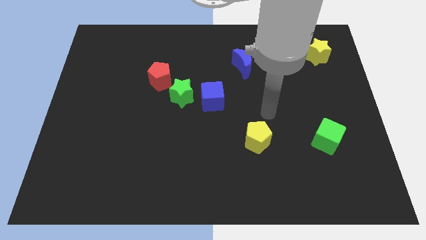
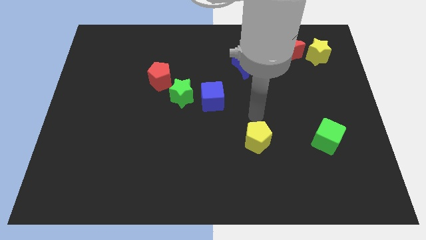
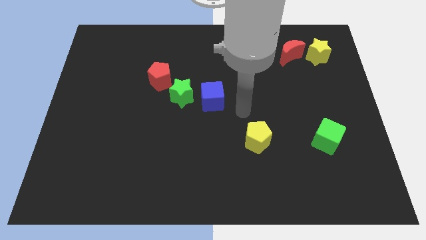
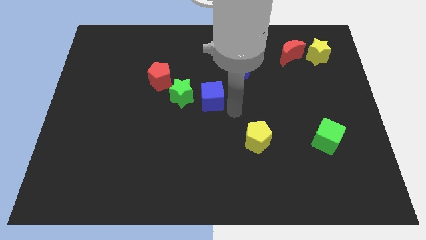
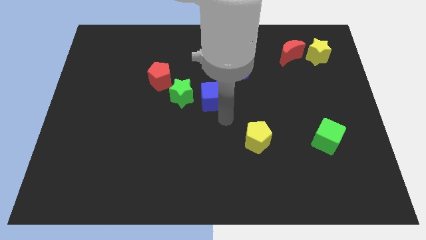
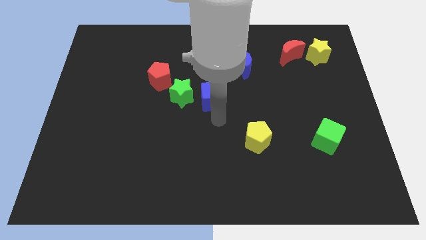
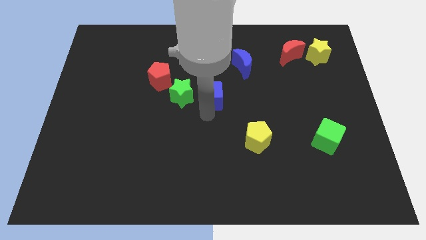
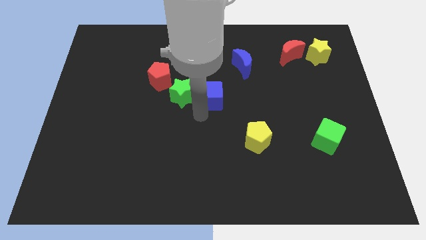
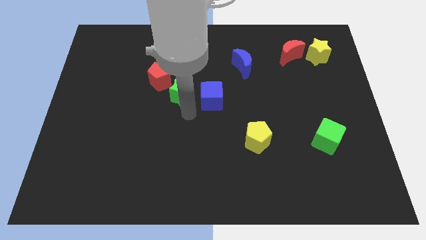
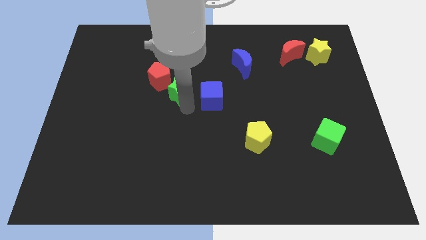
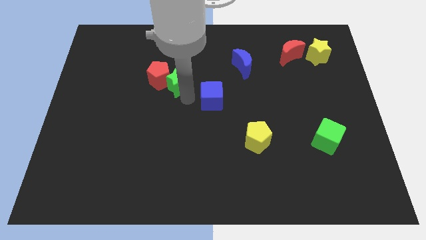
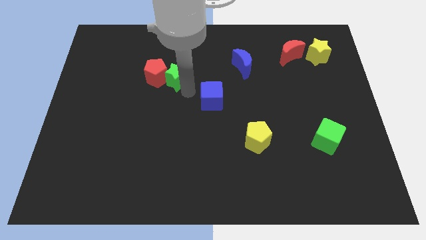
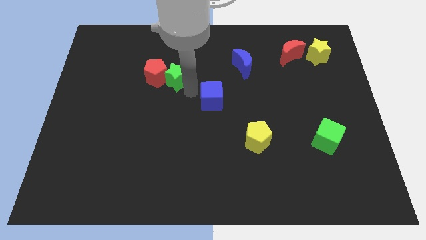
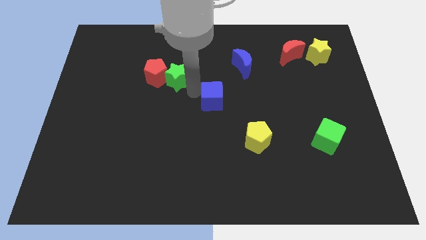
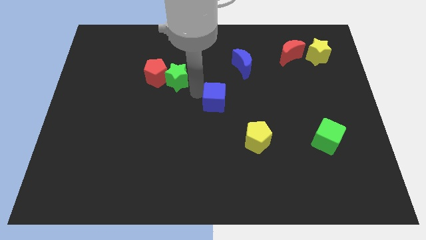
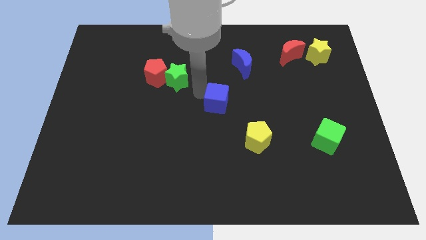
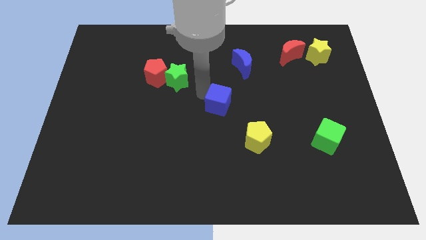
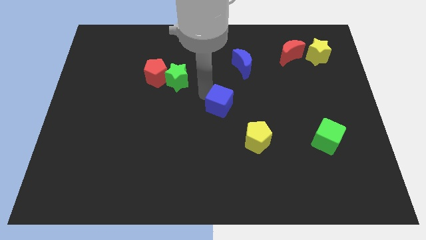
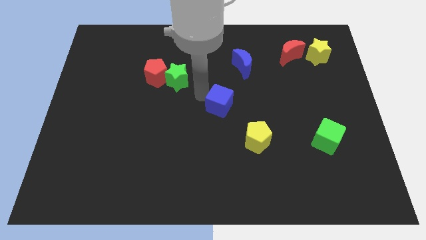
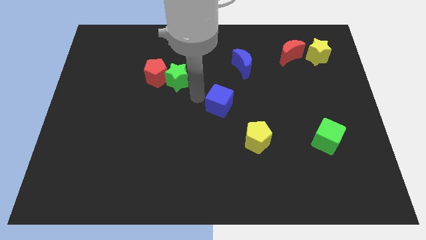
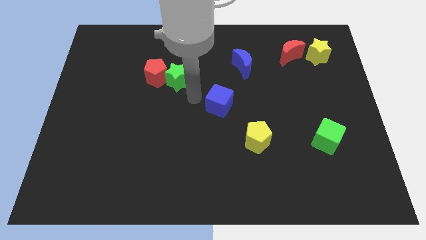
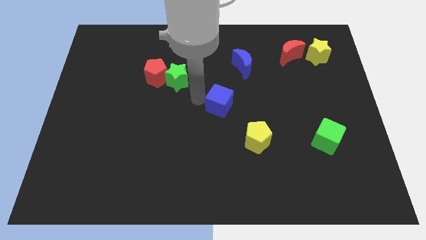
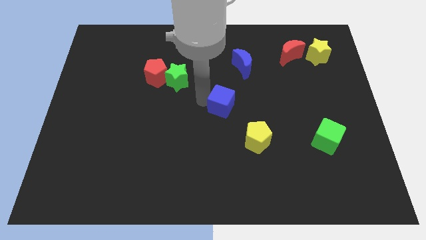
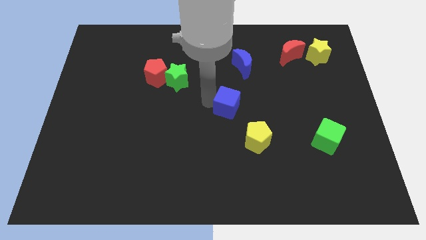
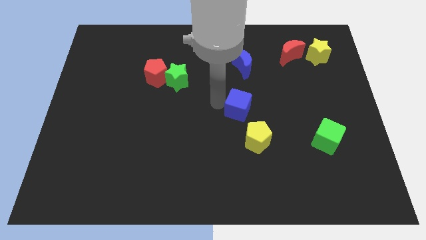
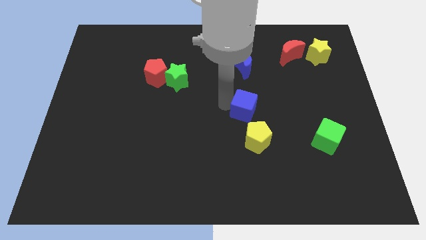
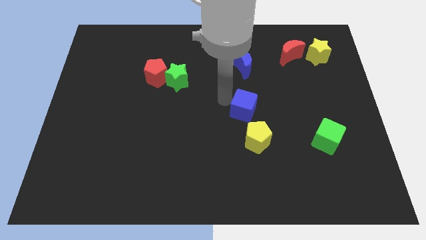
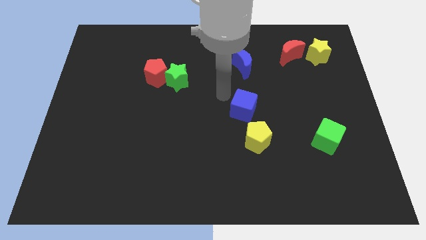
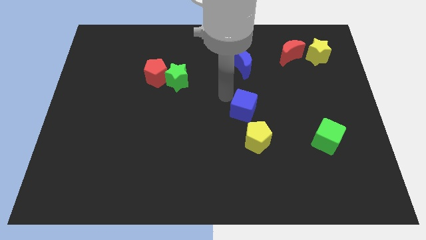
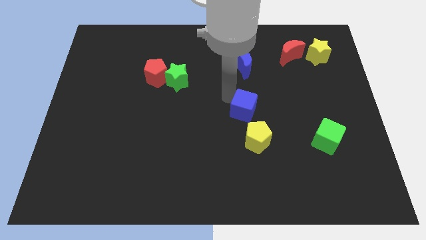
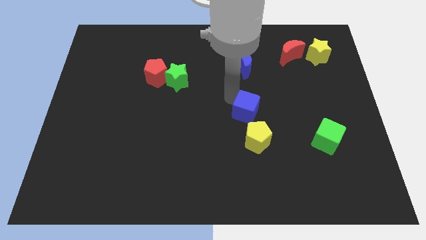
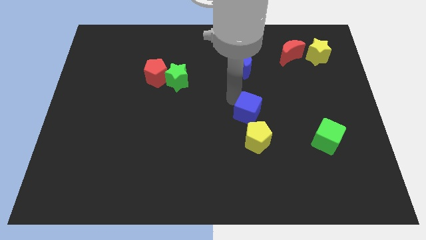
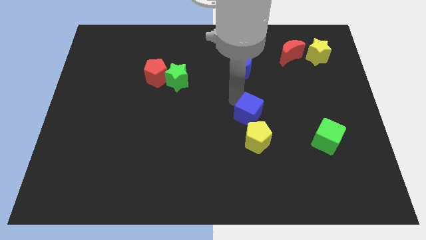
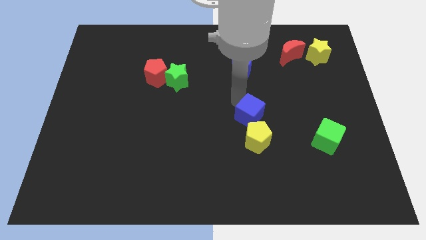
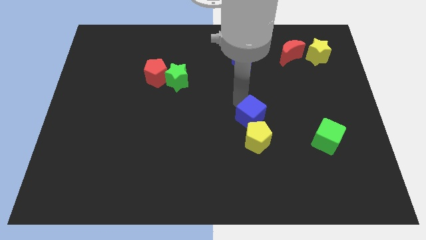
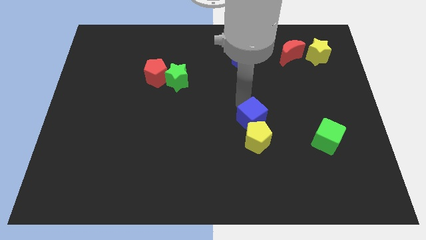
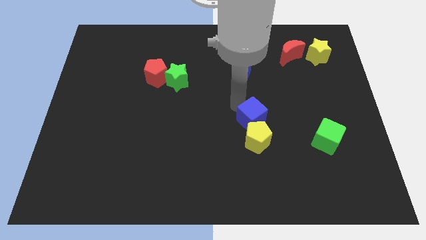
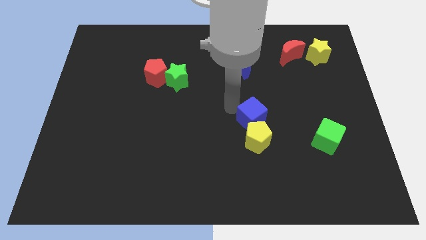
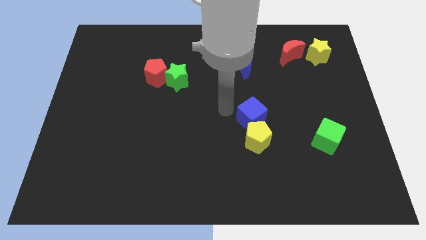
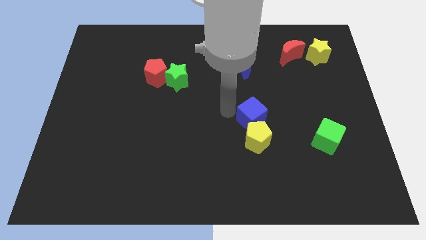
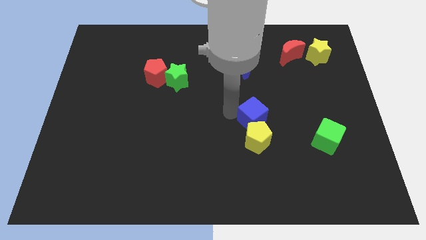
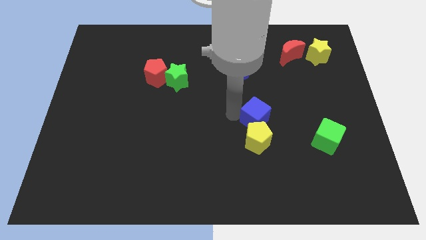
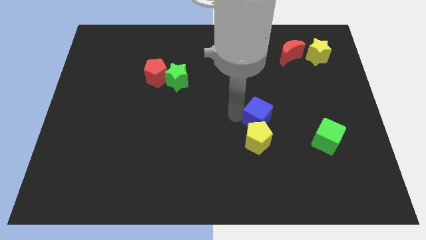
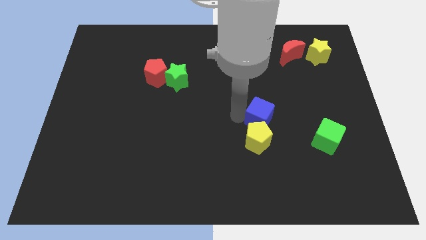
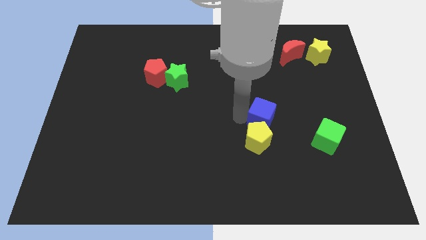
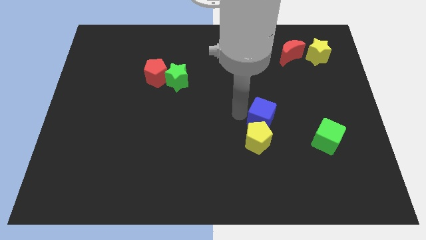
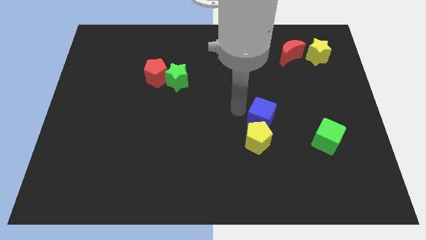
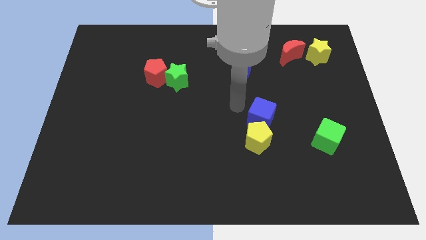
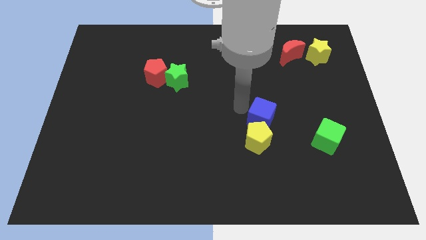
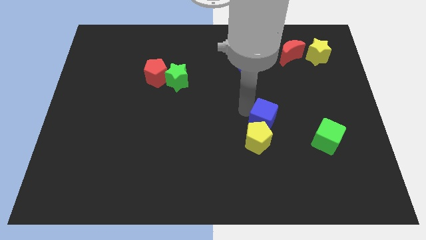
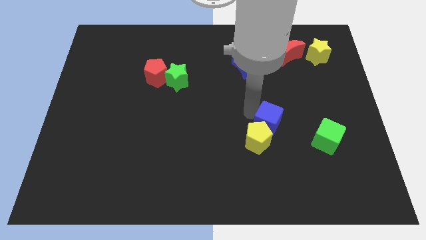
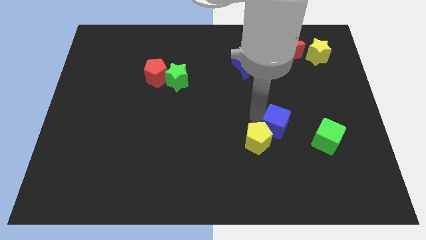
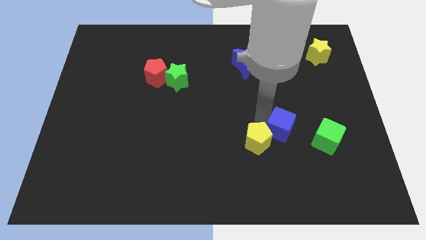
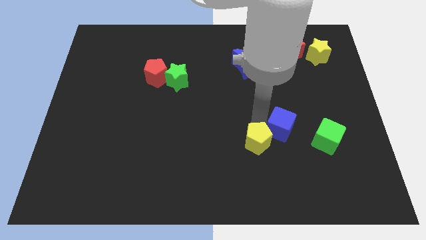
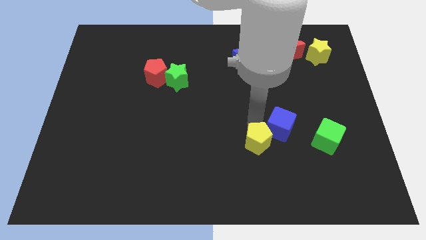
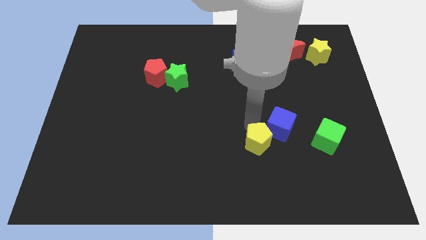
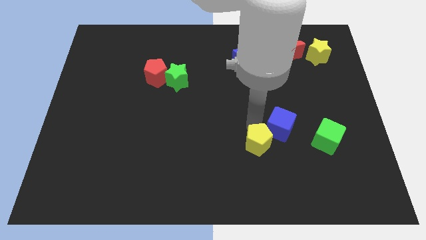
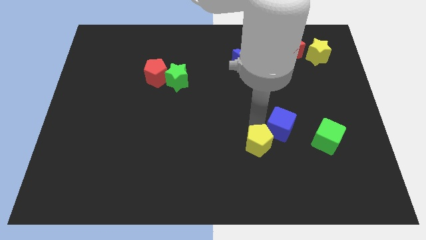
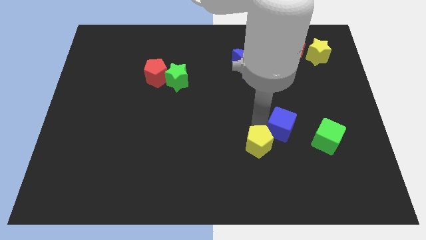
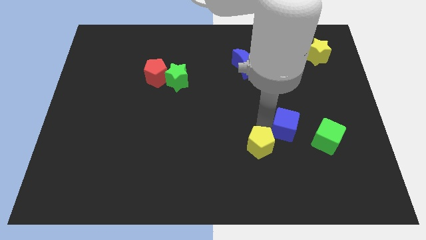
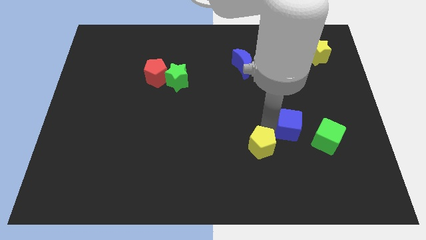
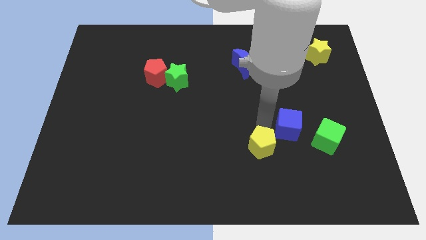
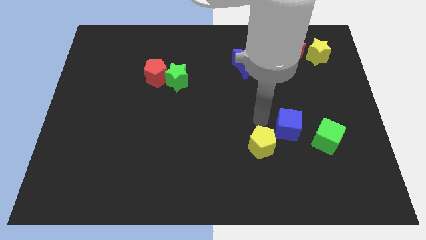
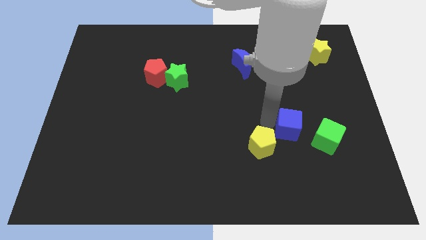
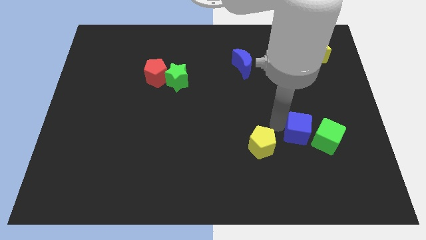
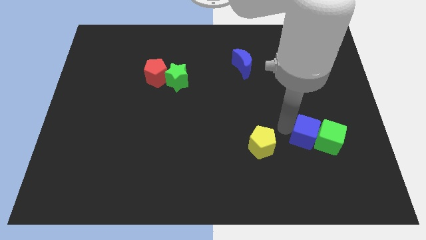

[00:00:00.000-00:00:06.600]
push the blue cube towards the green cube
